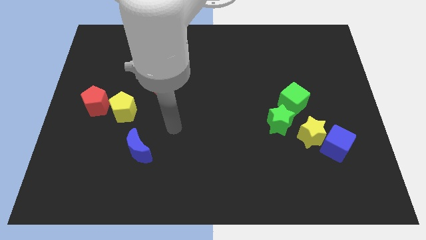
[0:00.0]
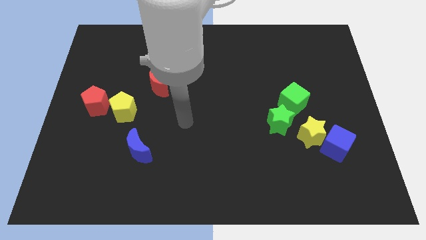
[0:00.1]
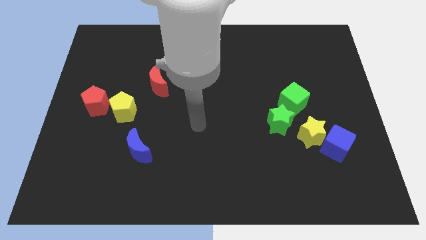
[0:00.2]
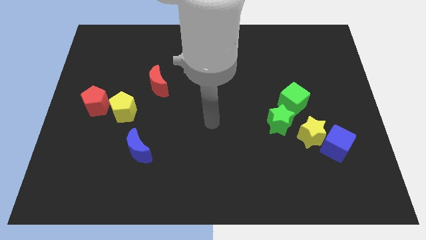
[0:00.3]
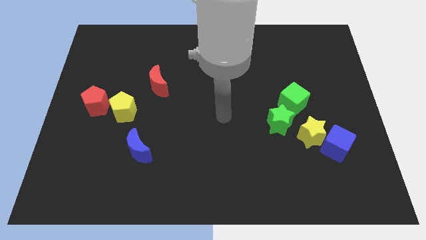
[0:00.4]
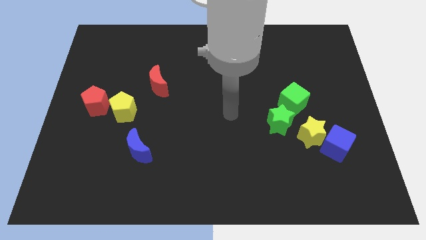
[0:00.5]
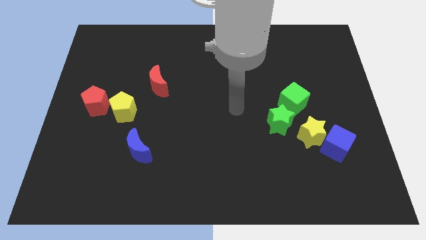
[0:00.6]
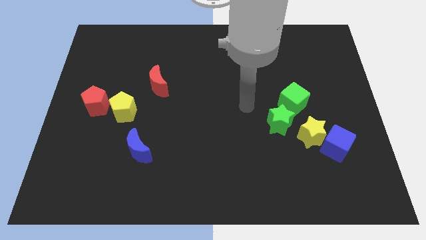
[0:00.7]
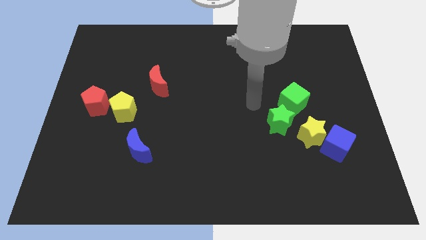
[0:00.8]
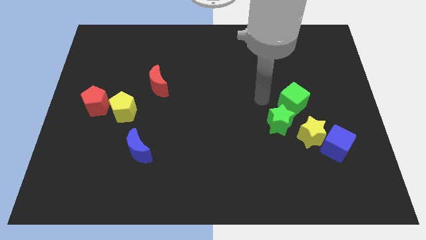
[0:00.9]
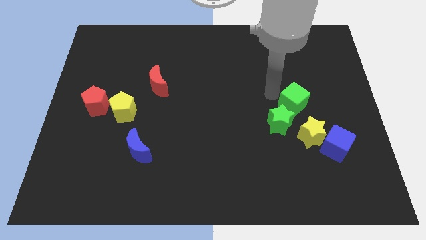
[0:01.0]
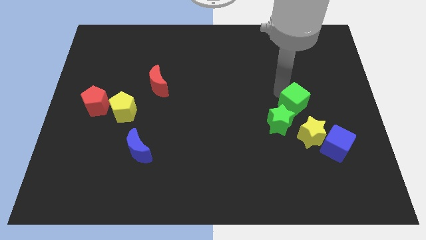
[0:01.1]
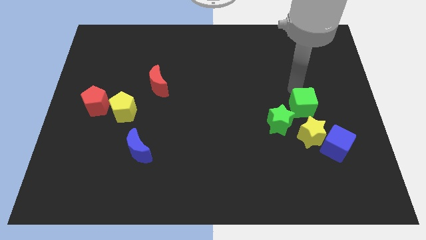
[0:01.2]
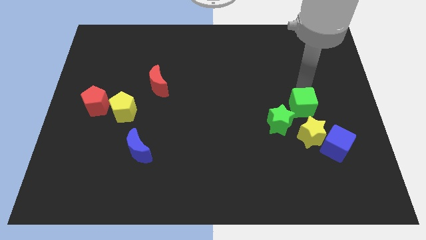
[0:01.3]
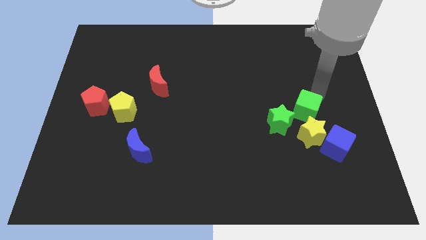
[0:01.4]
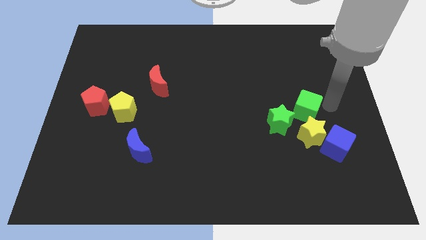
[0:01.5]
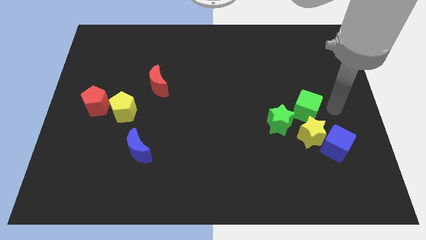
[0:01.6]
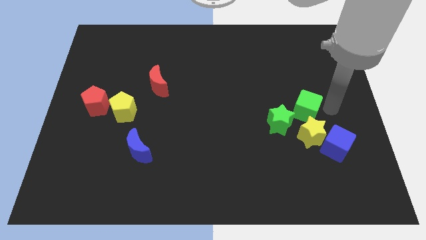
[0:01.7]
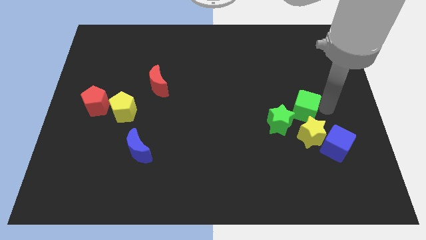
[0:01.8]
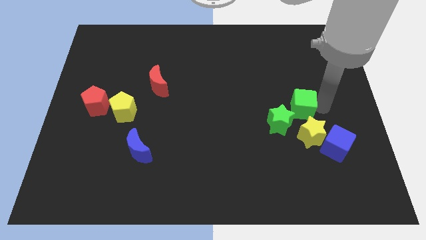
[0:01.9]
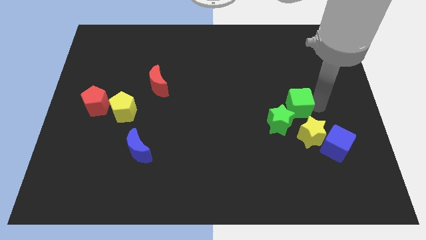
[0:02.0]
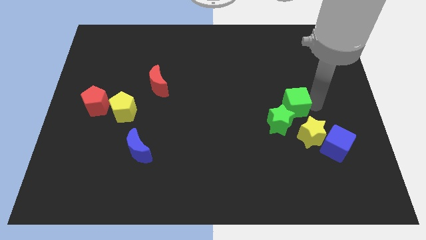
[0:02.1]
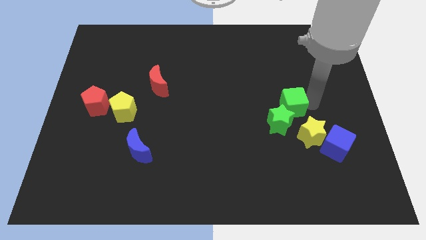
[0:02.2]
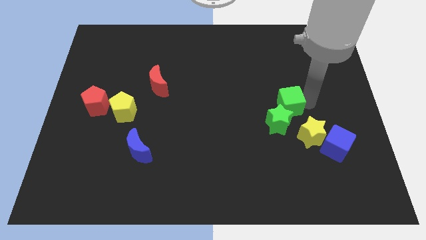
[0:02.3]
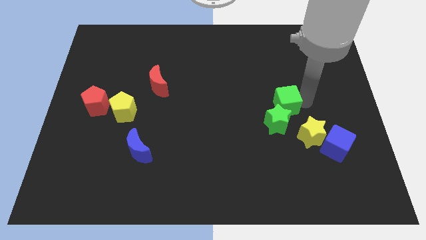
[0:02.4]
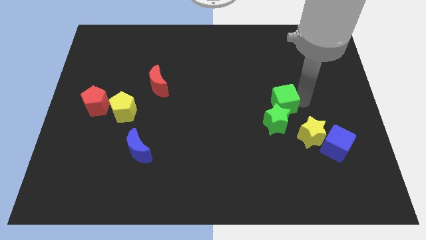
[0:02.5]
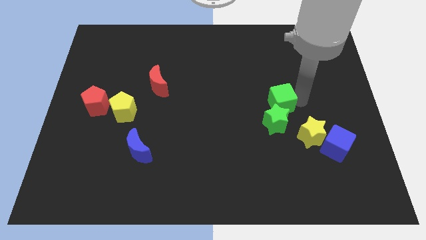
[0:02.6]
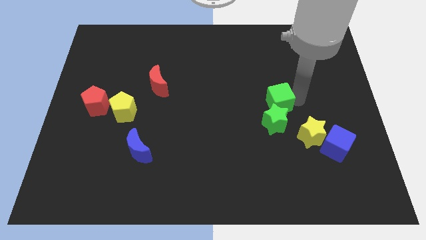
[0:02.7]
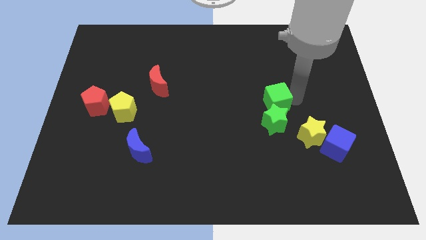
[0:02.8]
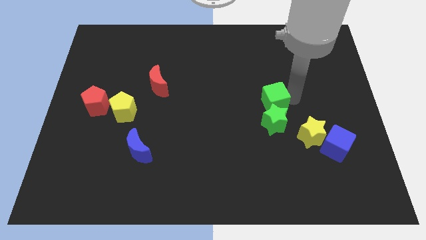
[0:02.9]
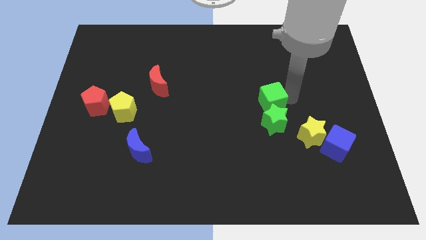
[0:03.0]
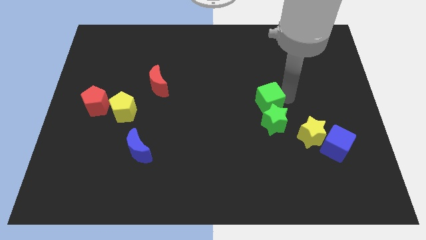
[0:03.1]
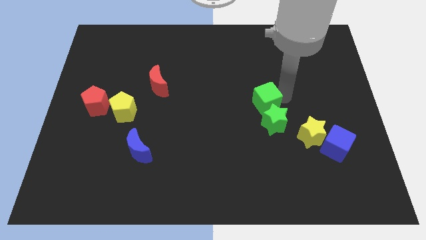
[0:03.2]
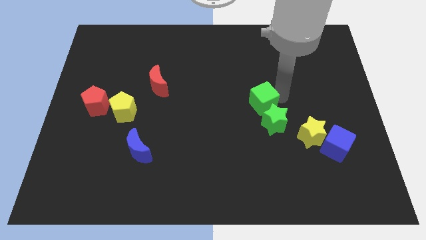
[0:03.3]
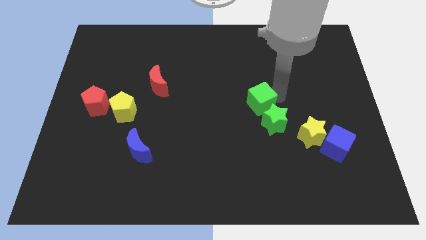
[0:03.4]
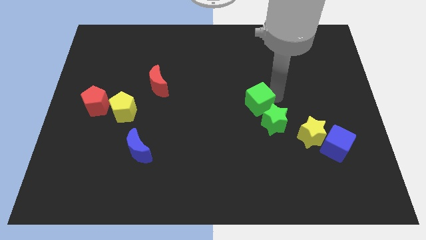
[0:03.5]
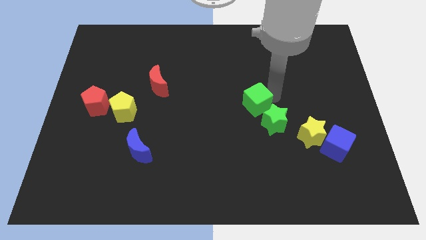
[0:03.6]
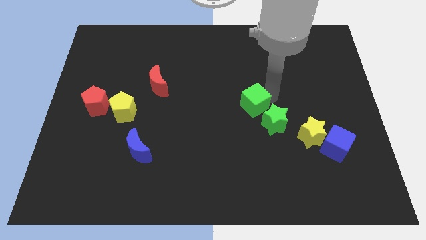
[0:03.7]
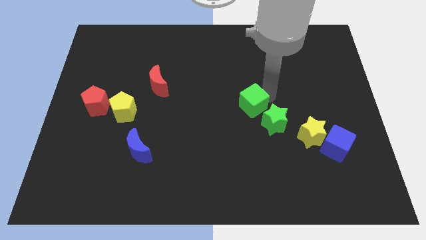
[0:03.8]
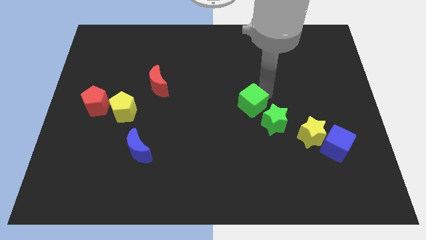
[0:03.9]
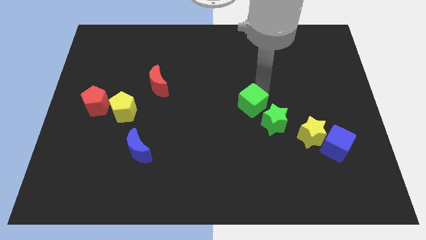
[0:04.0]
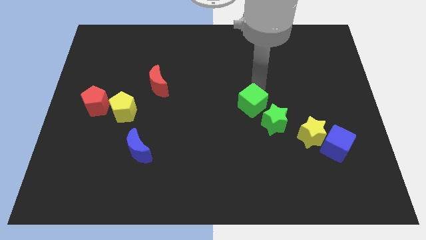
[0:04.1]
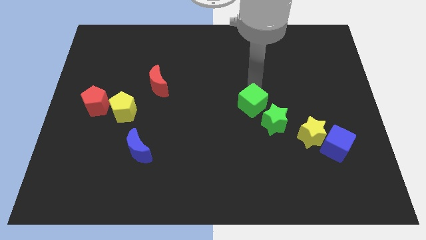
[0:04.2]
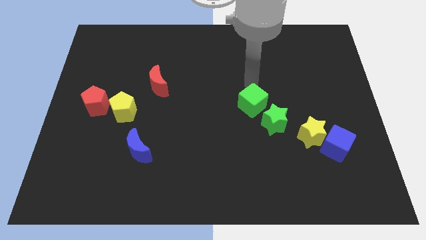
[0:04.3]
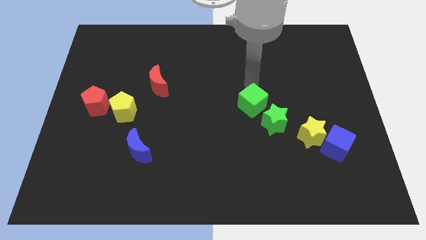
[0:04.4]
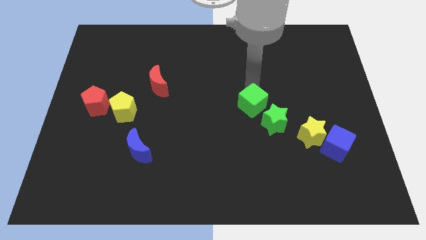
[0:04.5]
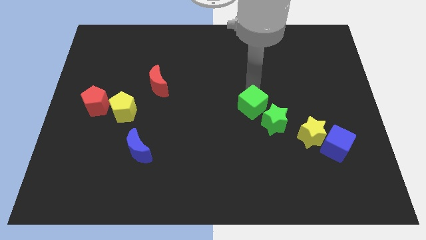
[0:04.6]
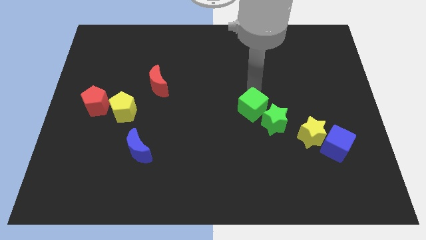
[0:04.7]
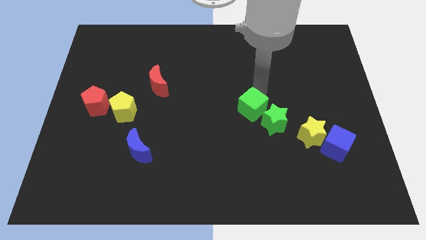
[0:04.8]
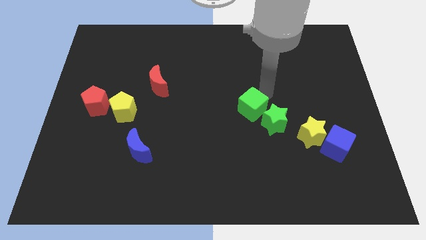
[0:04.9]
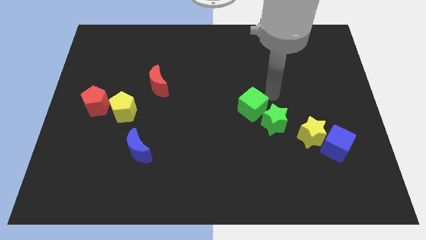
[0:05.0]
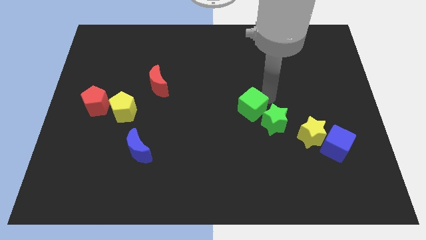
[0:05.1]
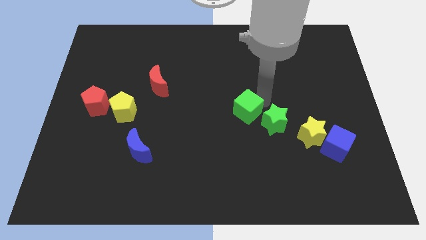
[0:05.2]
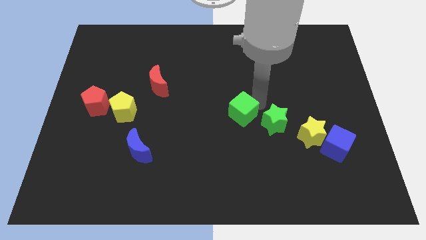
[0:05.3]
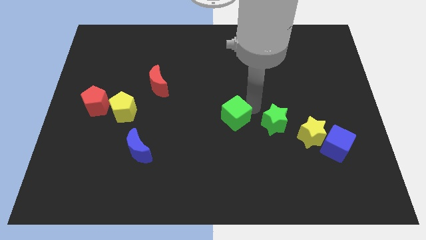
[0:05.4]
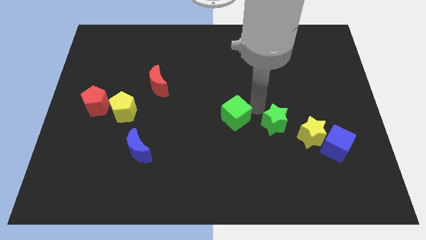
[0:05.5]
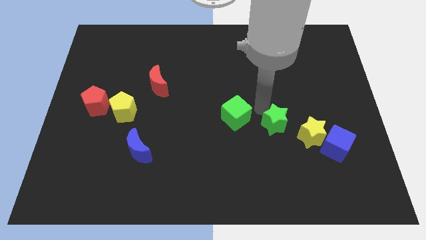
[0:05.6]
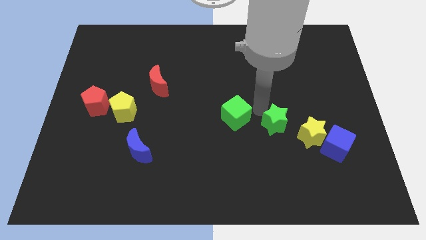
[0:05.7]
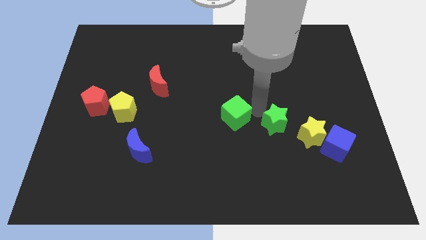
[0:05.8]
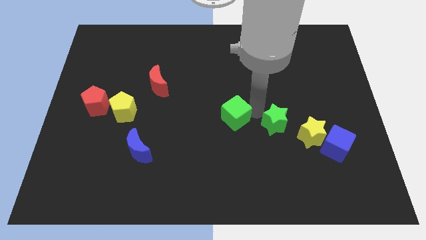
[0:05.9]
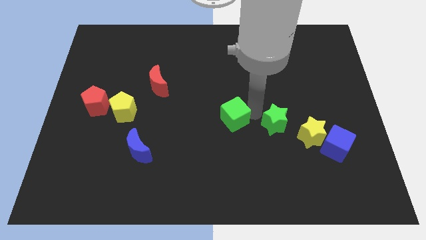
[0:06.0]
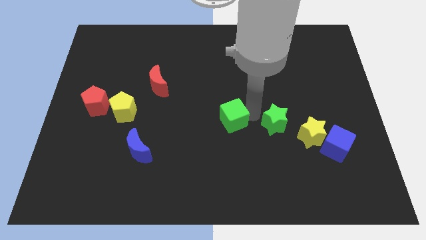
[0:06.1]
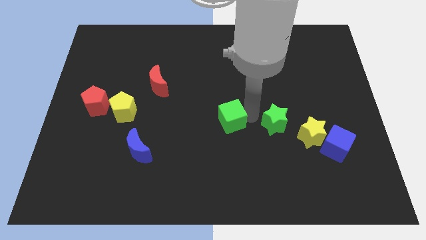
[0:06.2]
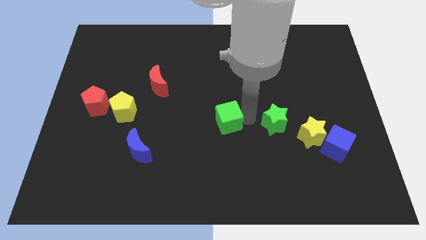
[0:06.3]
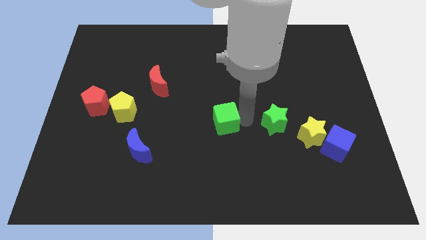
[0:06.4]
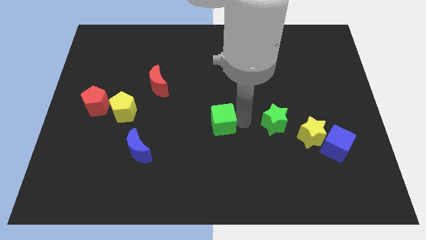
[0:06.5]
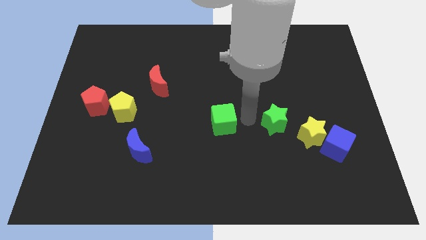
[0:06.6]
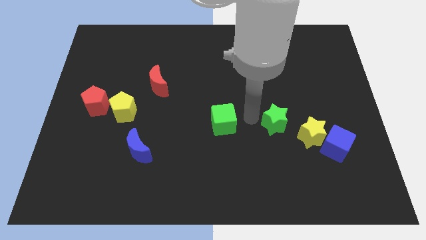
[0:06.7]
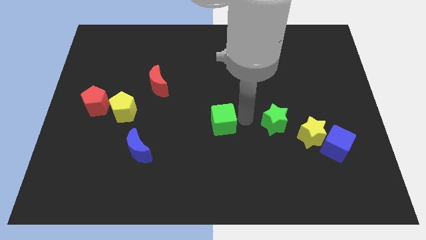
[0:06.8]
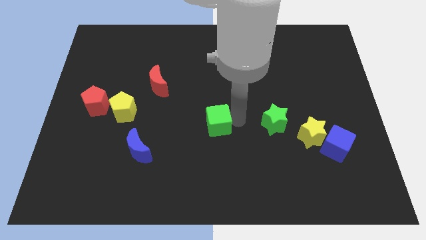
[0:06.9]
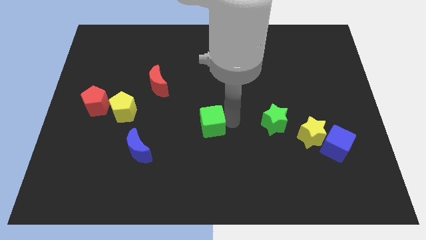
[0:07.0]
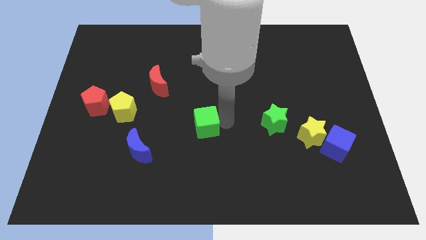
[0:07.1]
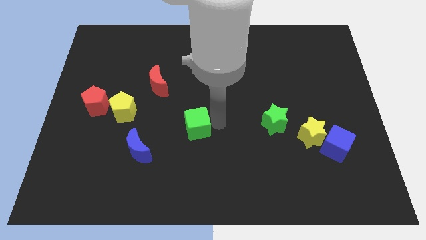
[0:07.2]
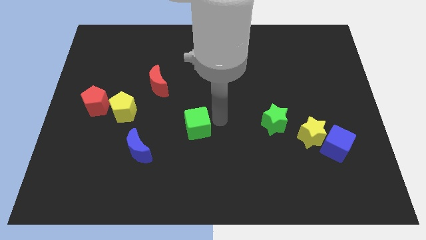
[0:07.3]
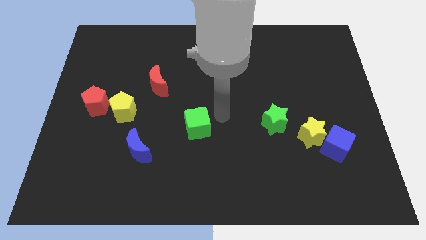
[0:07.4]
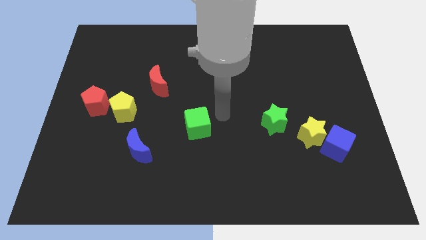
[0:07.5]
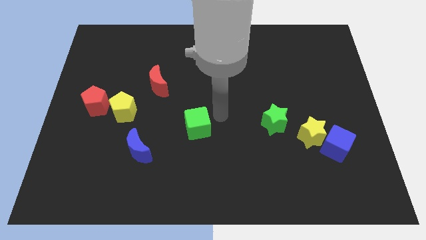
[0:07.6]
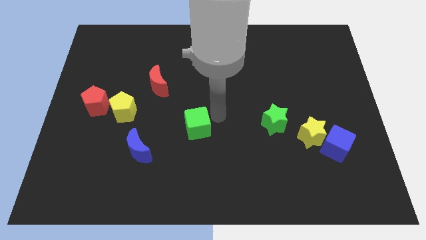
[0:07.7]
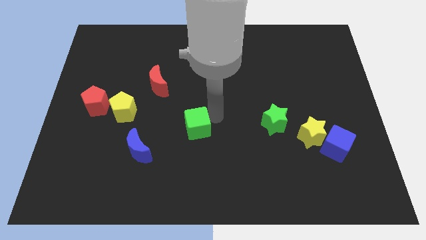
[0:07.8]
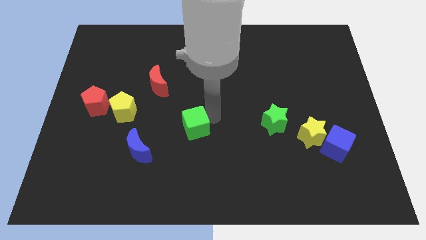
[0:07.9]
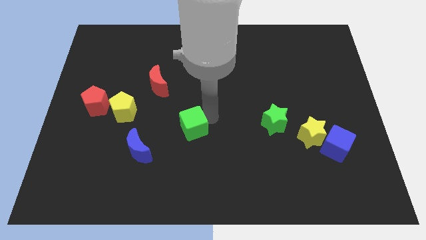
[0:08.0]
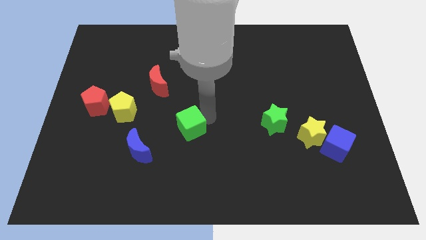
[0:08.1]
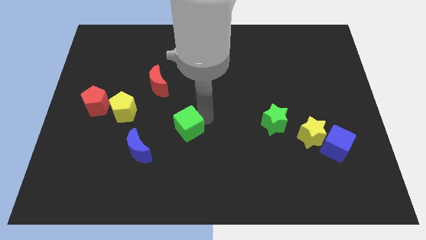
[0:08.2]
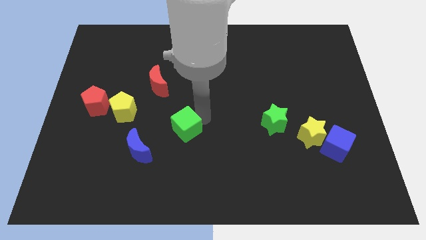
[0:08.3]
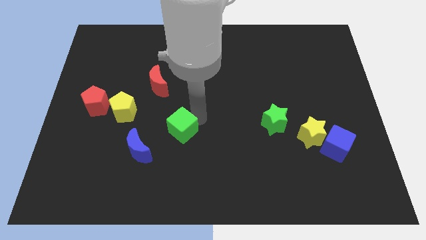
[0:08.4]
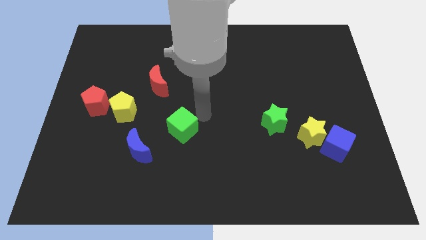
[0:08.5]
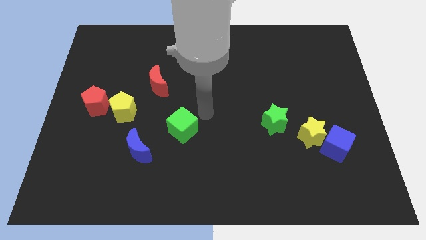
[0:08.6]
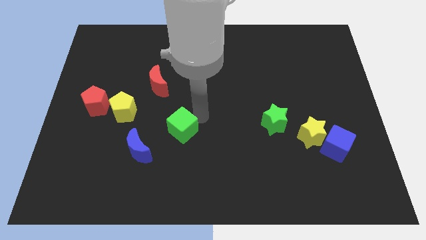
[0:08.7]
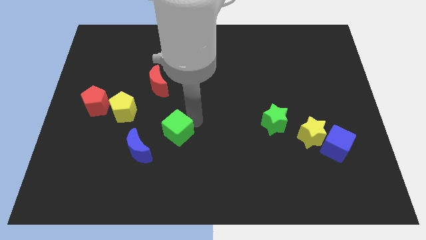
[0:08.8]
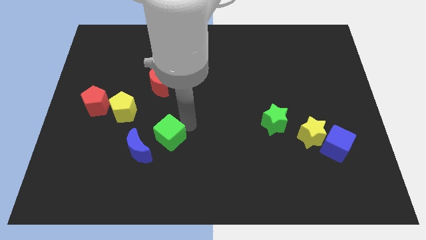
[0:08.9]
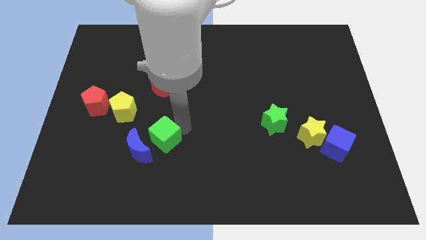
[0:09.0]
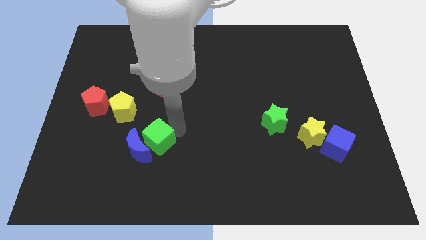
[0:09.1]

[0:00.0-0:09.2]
put the green cube towards the blue moon
